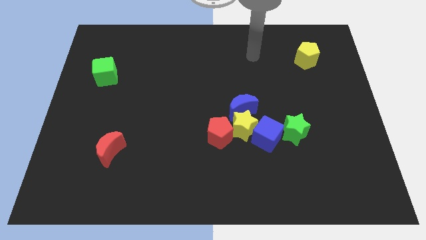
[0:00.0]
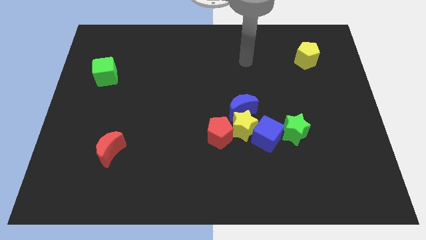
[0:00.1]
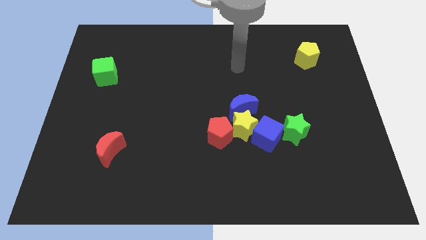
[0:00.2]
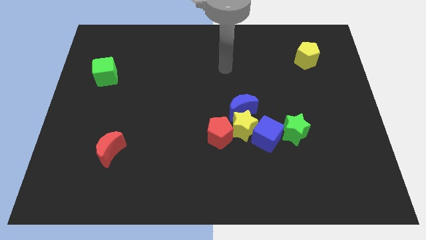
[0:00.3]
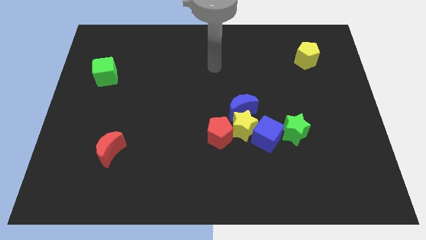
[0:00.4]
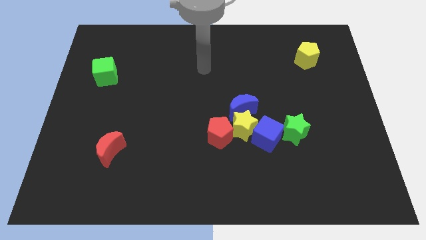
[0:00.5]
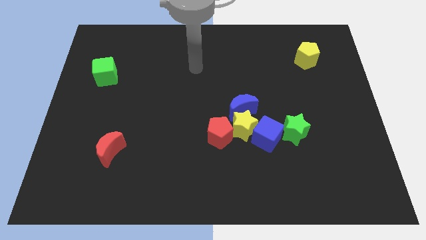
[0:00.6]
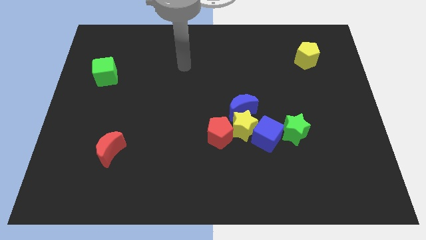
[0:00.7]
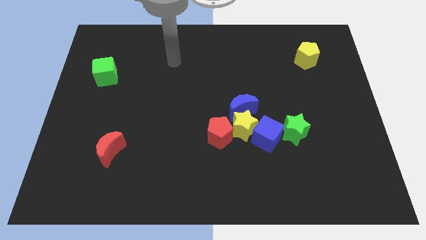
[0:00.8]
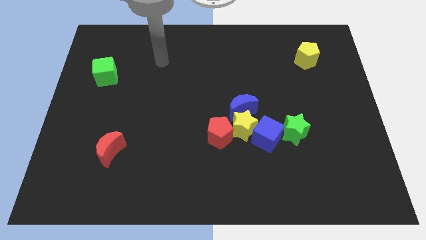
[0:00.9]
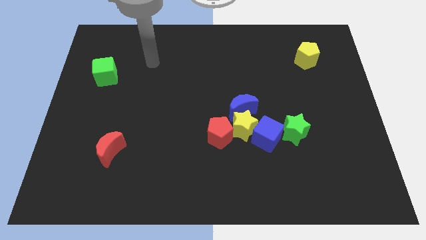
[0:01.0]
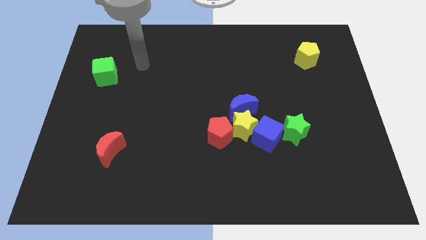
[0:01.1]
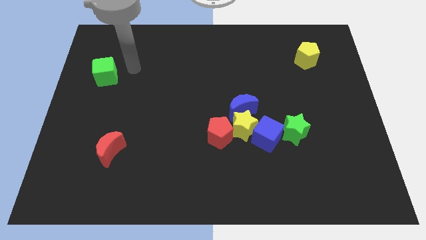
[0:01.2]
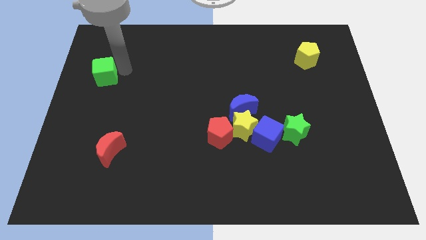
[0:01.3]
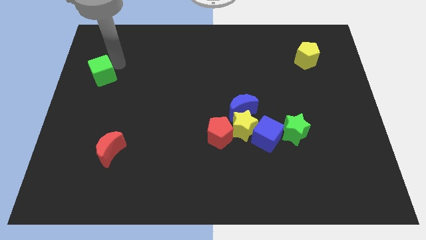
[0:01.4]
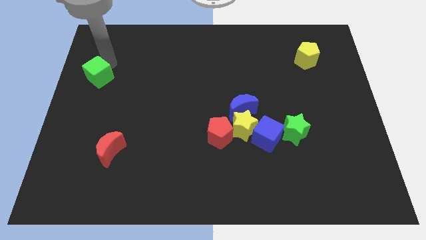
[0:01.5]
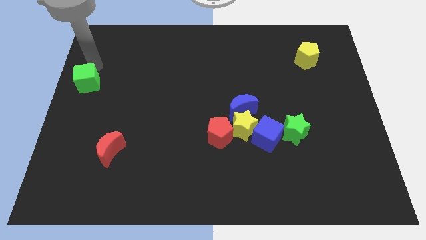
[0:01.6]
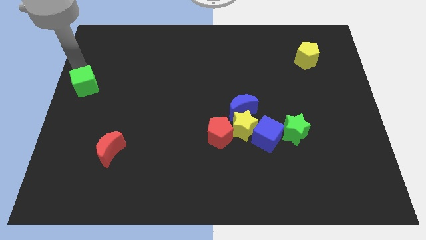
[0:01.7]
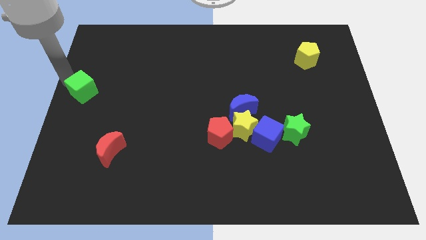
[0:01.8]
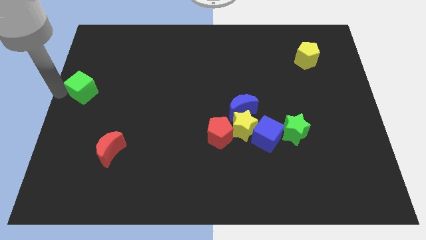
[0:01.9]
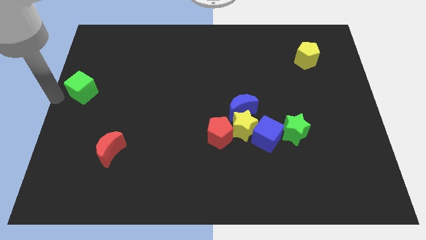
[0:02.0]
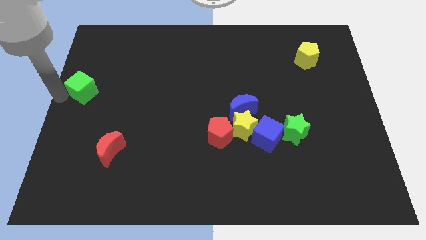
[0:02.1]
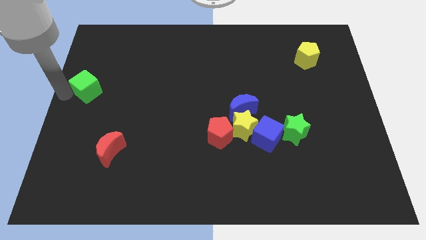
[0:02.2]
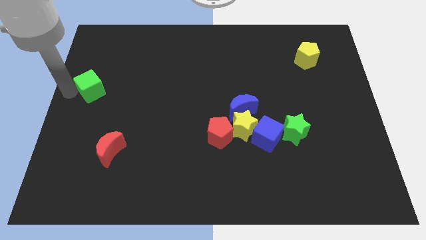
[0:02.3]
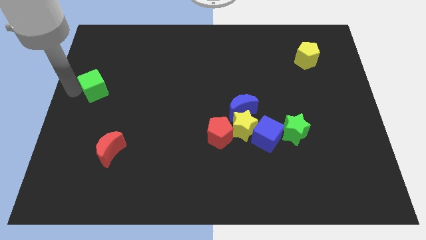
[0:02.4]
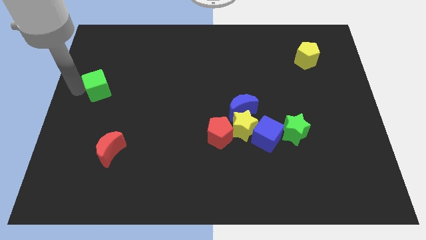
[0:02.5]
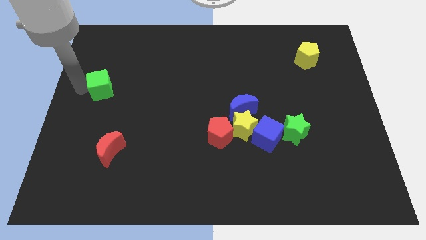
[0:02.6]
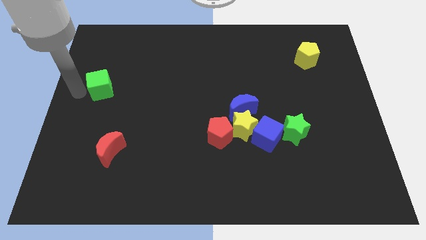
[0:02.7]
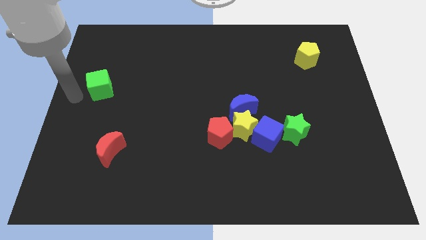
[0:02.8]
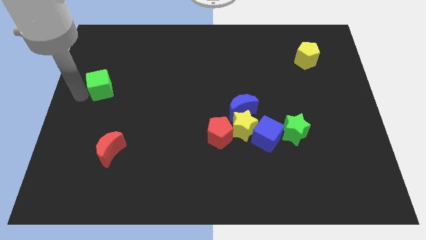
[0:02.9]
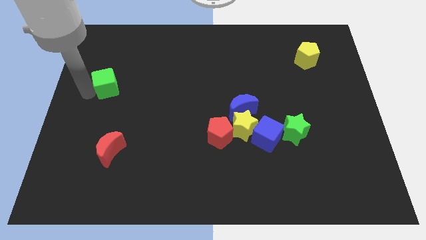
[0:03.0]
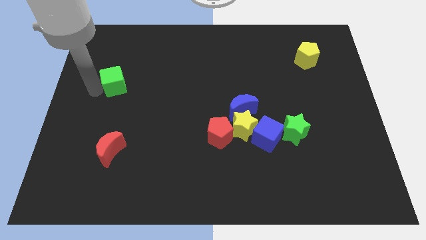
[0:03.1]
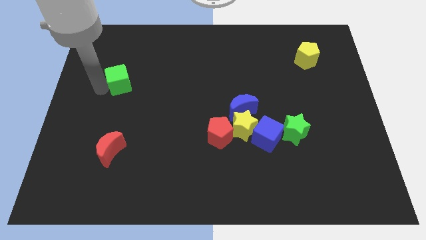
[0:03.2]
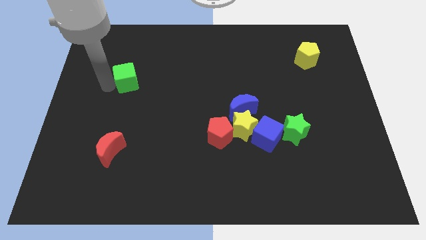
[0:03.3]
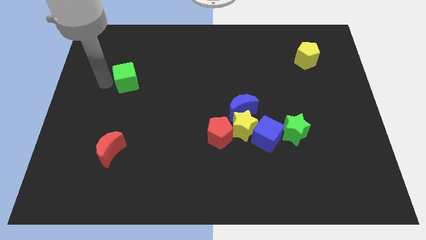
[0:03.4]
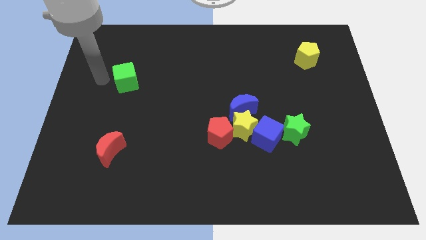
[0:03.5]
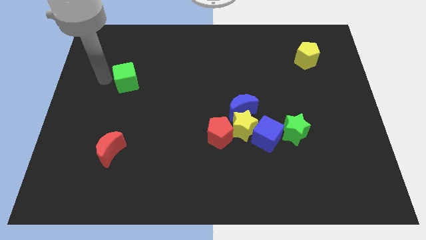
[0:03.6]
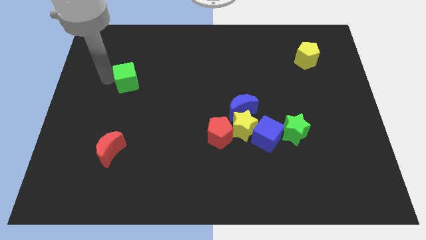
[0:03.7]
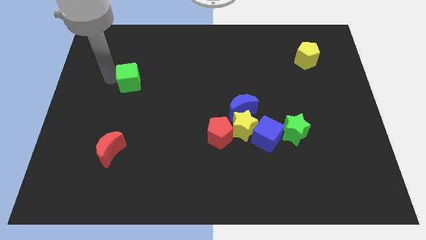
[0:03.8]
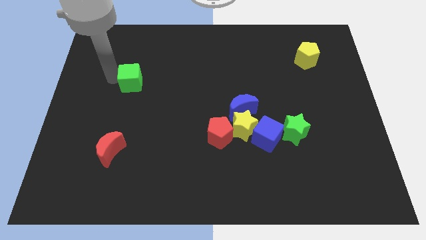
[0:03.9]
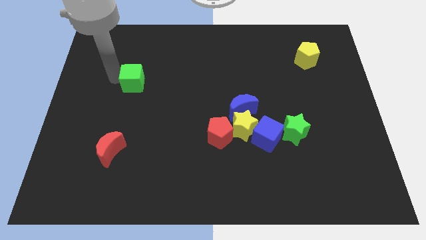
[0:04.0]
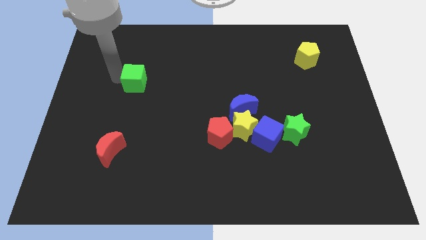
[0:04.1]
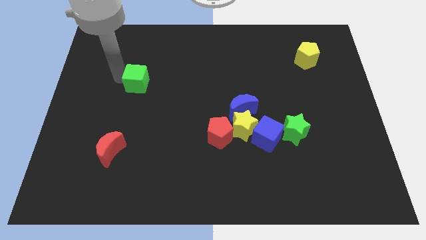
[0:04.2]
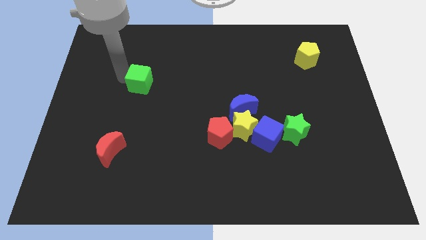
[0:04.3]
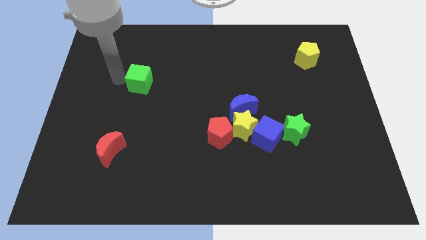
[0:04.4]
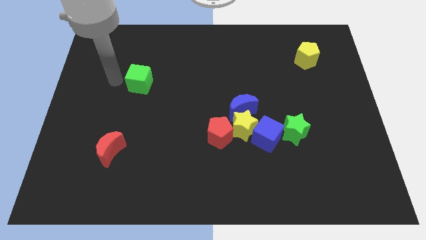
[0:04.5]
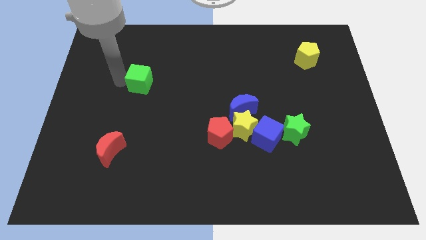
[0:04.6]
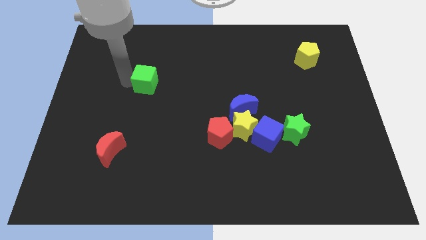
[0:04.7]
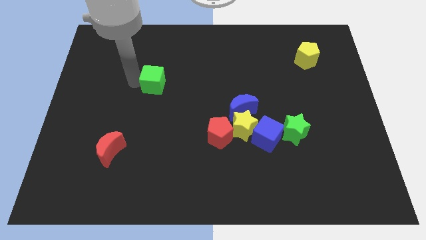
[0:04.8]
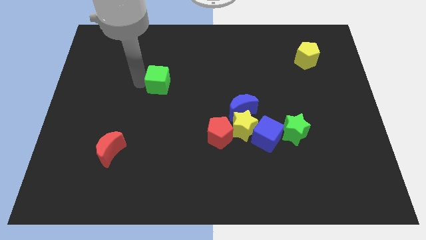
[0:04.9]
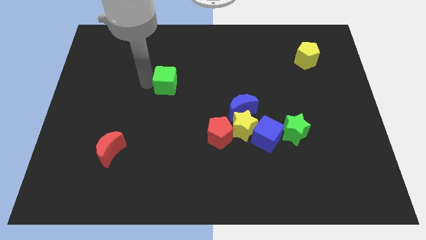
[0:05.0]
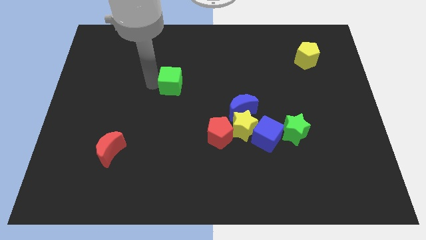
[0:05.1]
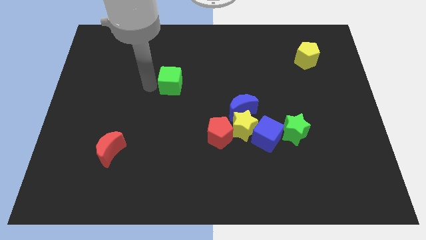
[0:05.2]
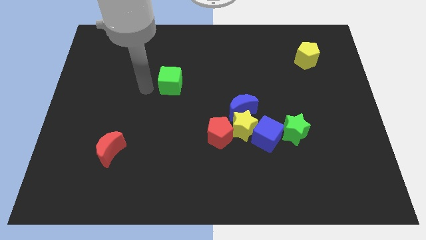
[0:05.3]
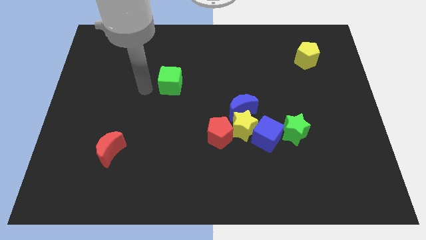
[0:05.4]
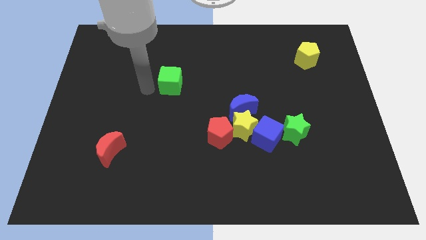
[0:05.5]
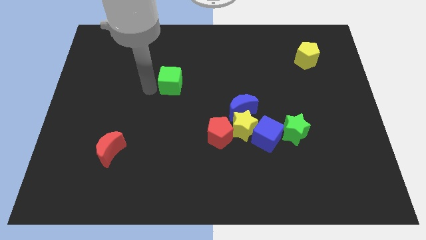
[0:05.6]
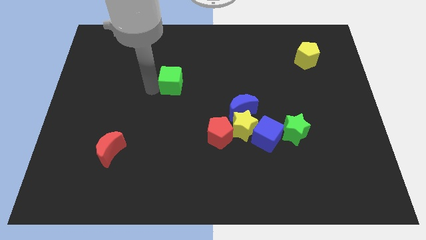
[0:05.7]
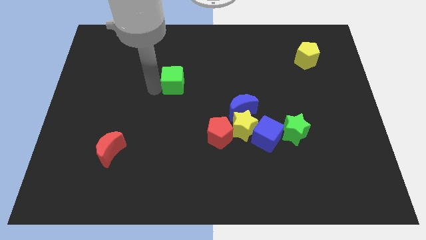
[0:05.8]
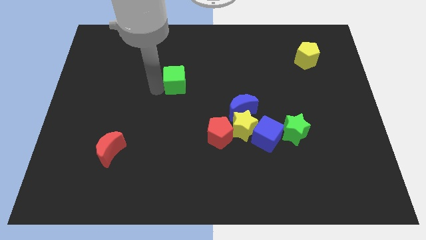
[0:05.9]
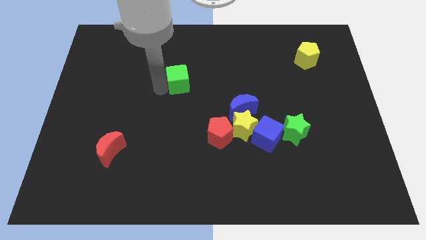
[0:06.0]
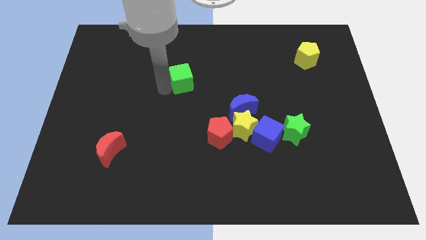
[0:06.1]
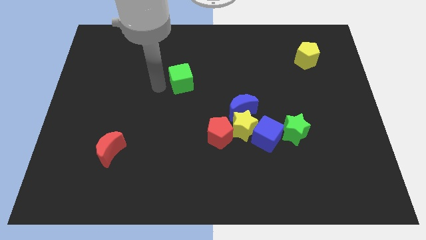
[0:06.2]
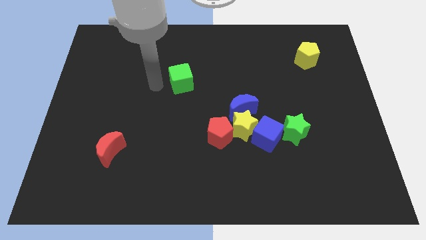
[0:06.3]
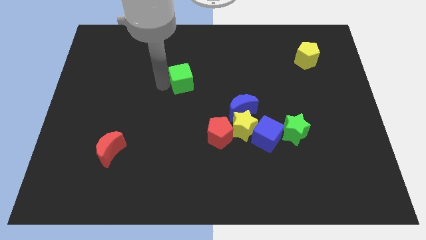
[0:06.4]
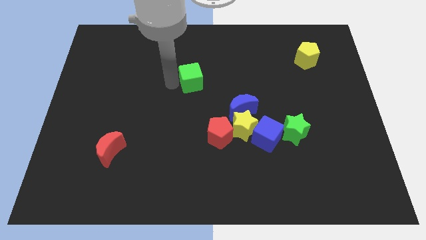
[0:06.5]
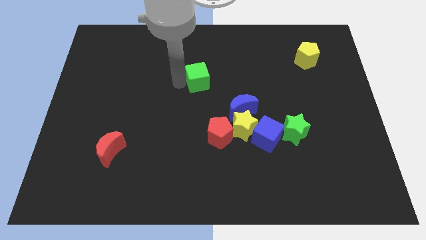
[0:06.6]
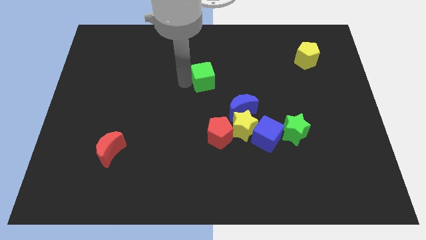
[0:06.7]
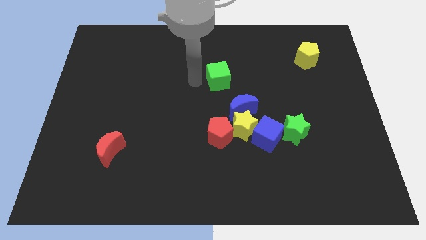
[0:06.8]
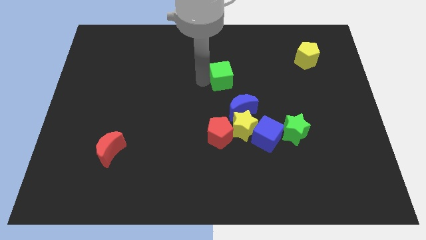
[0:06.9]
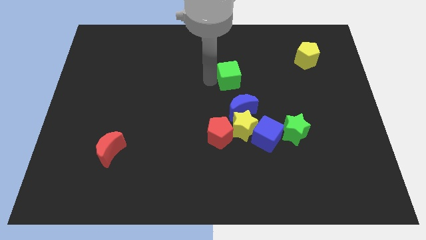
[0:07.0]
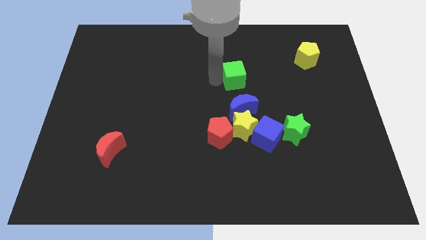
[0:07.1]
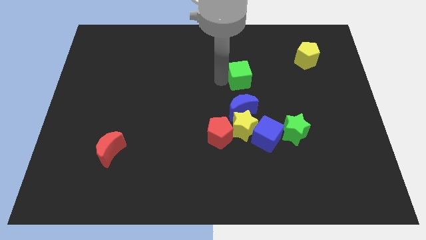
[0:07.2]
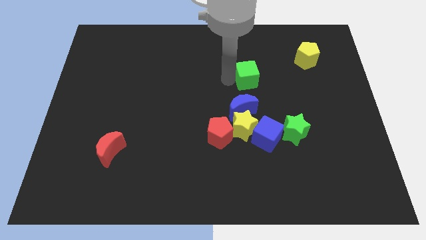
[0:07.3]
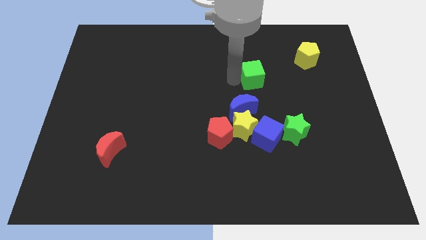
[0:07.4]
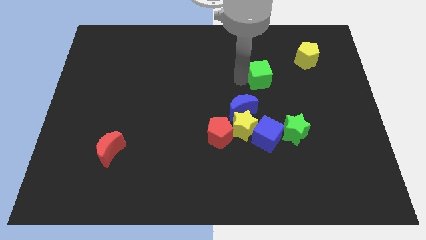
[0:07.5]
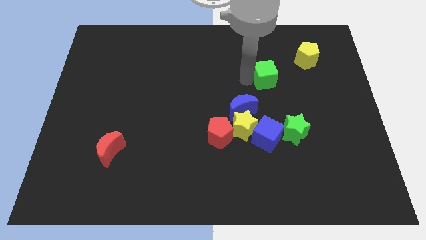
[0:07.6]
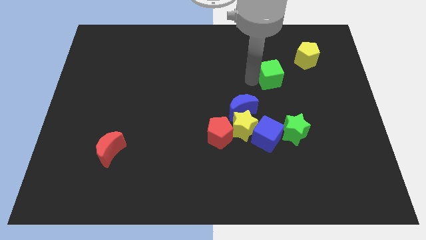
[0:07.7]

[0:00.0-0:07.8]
move the green cube to the bottom left side of the yellow pentagon
